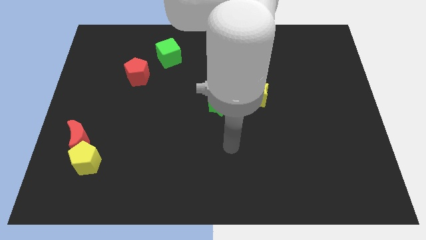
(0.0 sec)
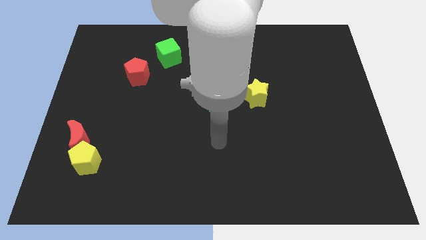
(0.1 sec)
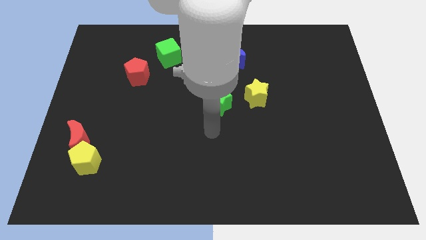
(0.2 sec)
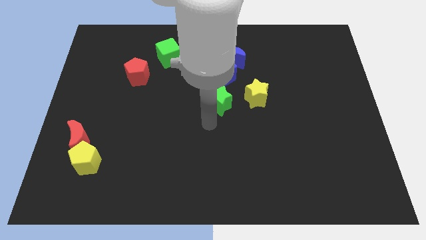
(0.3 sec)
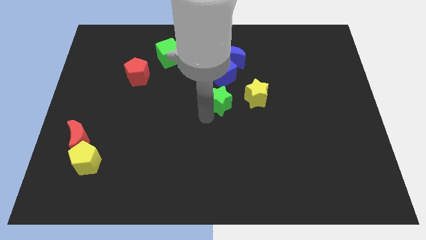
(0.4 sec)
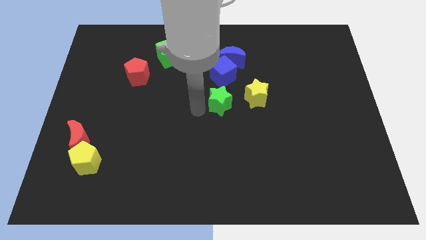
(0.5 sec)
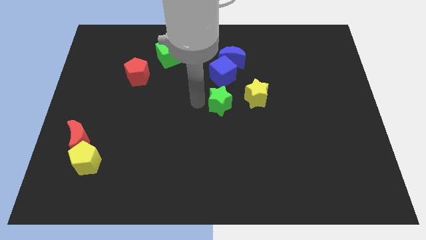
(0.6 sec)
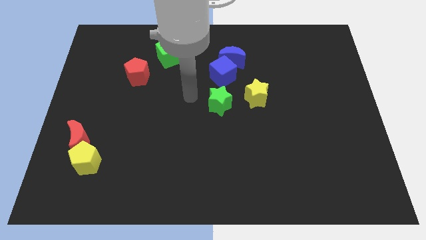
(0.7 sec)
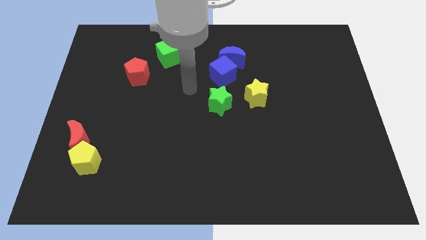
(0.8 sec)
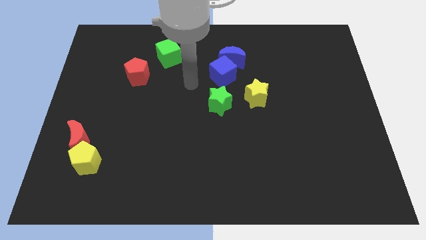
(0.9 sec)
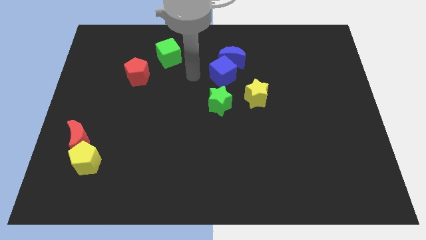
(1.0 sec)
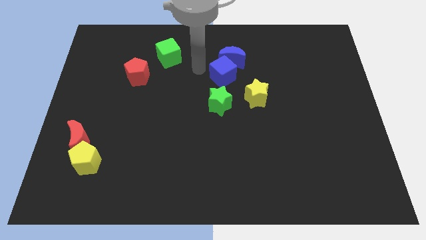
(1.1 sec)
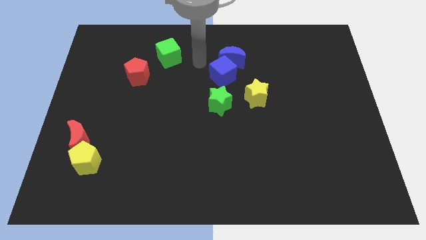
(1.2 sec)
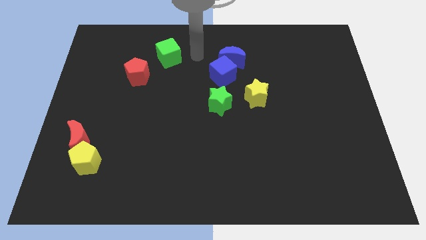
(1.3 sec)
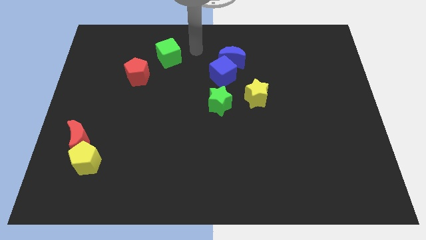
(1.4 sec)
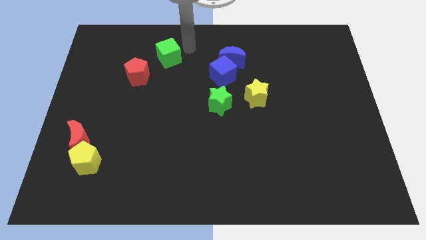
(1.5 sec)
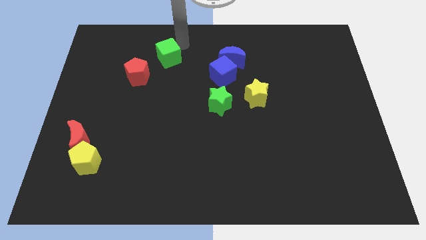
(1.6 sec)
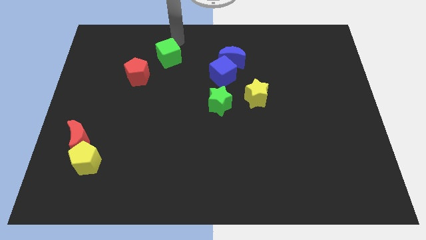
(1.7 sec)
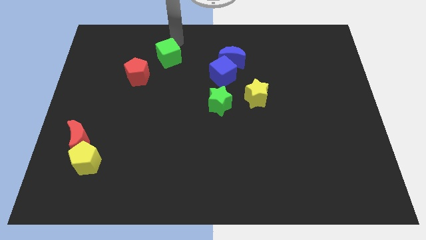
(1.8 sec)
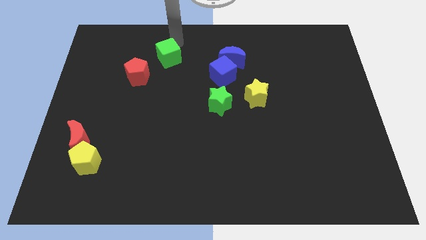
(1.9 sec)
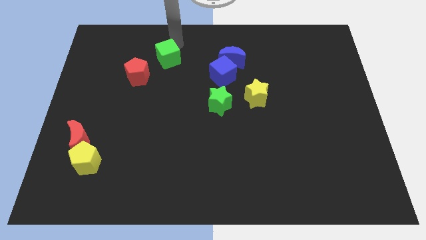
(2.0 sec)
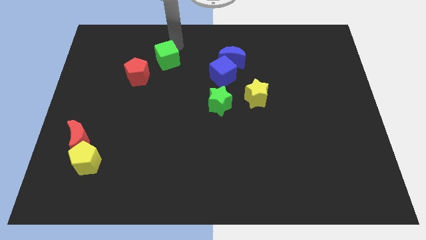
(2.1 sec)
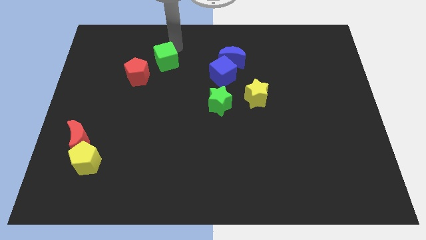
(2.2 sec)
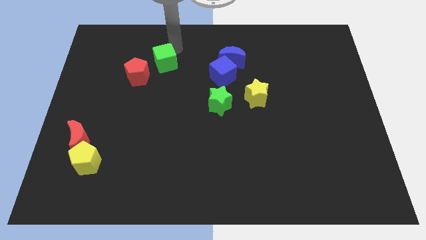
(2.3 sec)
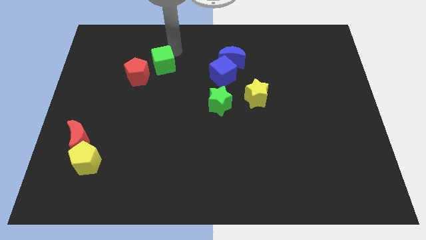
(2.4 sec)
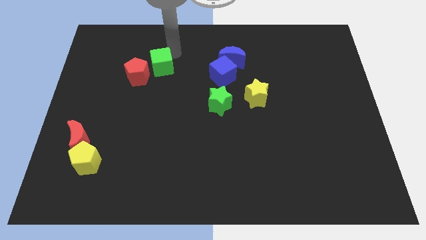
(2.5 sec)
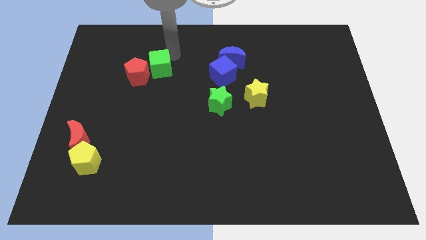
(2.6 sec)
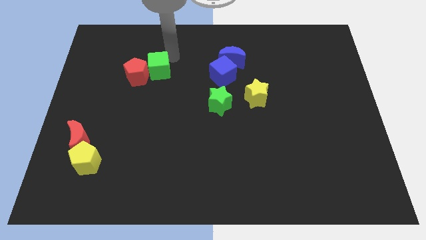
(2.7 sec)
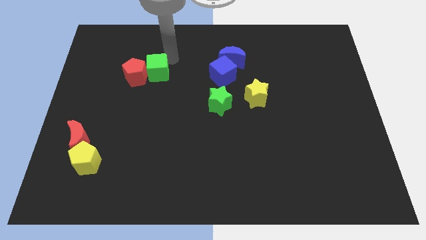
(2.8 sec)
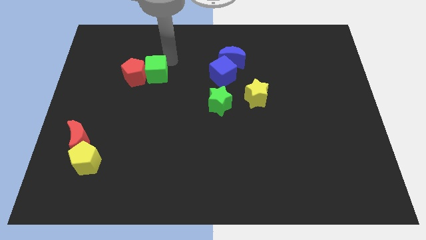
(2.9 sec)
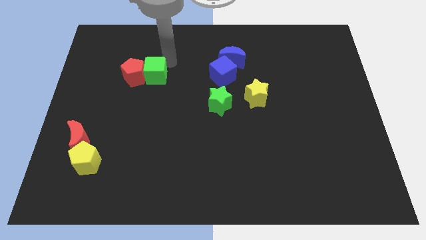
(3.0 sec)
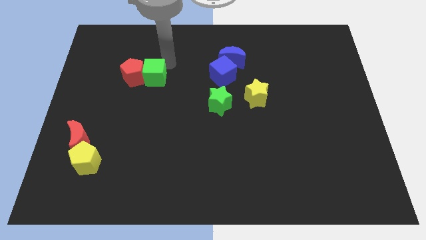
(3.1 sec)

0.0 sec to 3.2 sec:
slide the green cube a little down and left diagonally

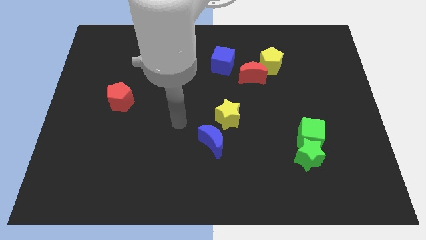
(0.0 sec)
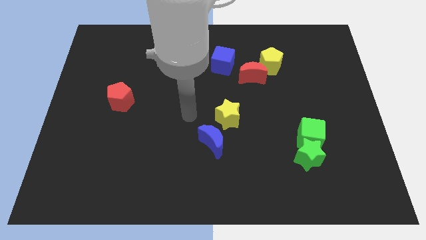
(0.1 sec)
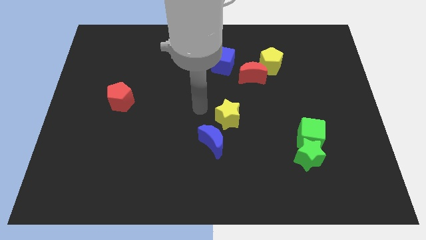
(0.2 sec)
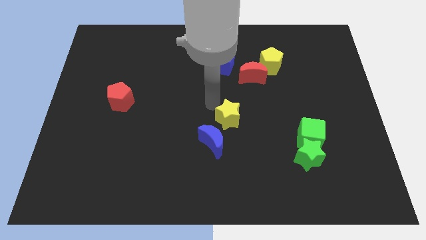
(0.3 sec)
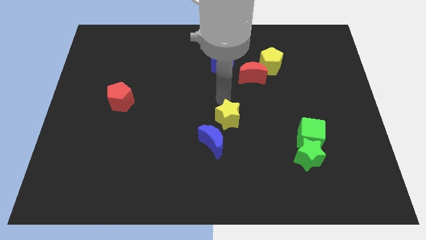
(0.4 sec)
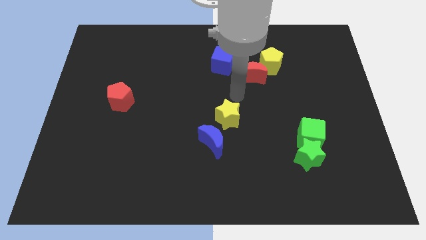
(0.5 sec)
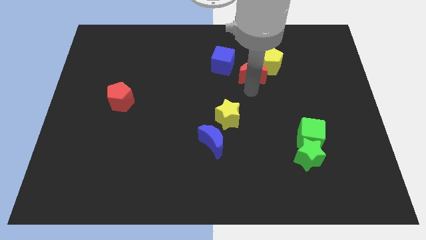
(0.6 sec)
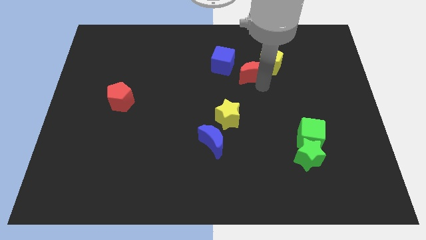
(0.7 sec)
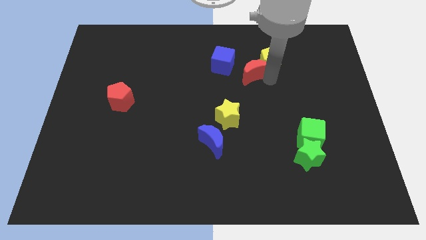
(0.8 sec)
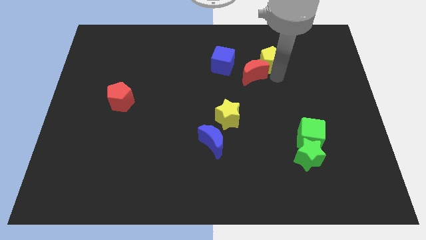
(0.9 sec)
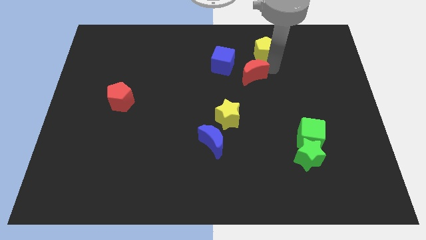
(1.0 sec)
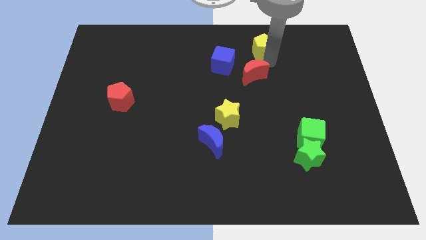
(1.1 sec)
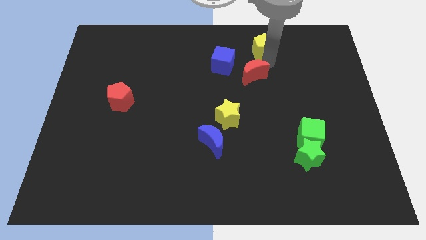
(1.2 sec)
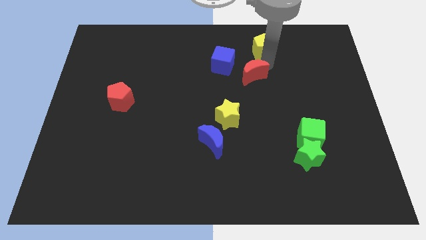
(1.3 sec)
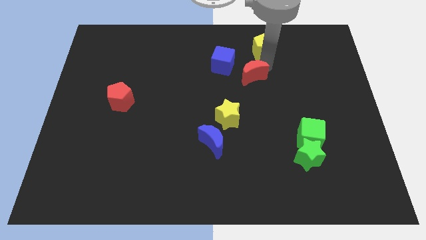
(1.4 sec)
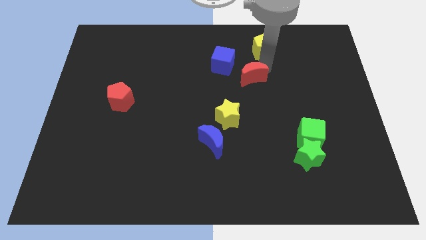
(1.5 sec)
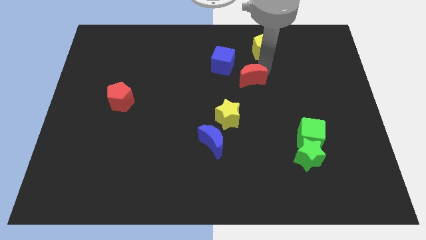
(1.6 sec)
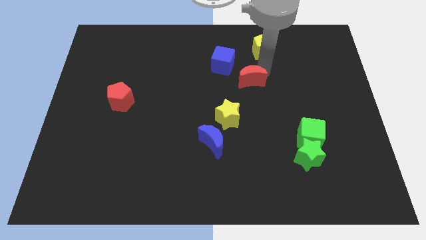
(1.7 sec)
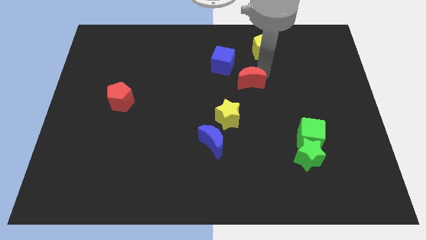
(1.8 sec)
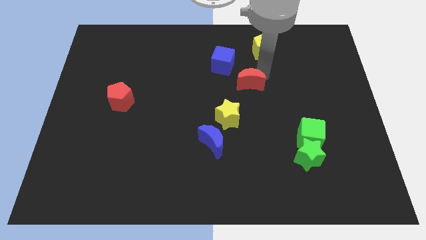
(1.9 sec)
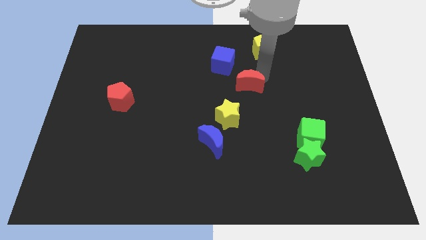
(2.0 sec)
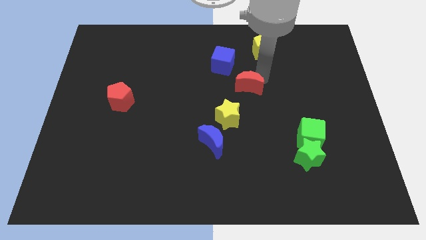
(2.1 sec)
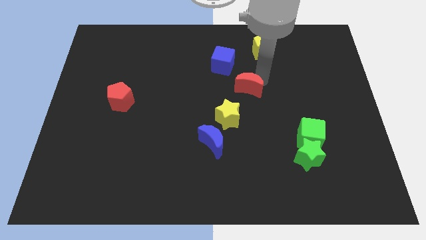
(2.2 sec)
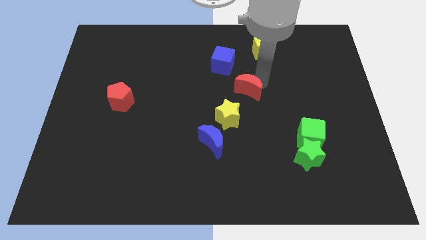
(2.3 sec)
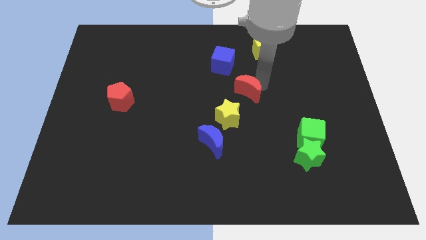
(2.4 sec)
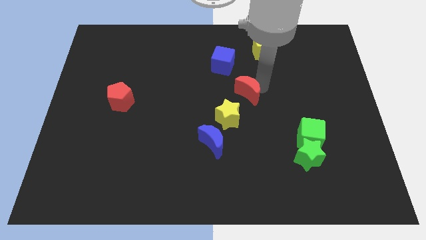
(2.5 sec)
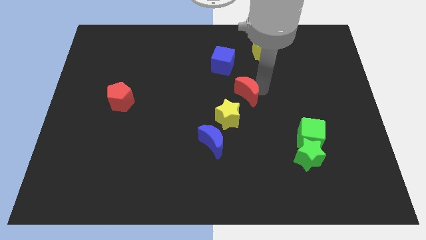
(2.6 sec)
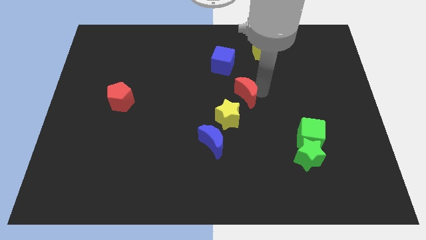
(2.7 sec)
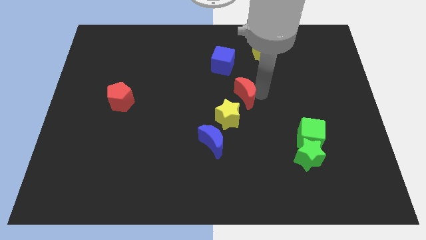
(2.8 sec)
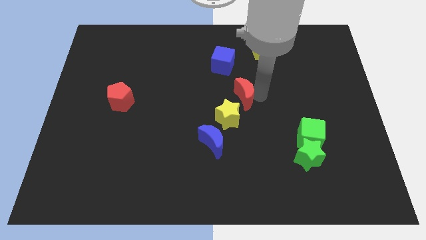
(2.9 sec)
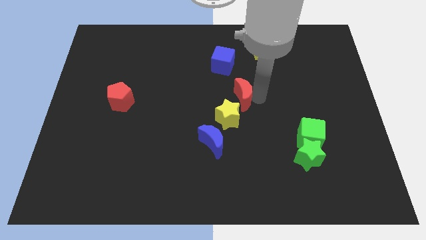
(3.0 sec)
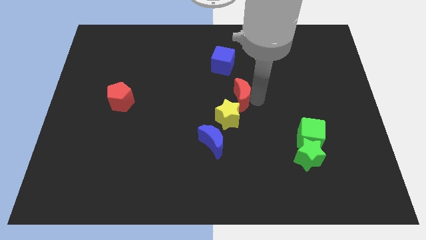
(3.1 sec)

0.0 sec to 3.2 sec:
slide the red moon a bit downwards and left

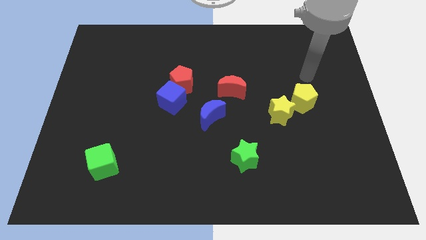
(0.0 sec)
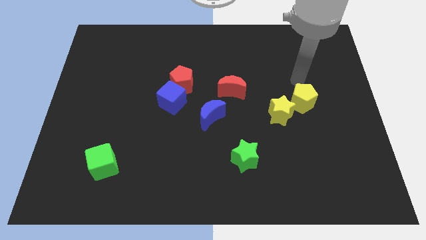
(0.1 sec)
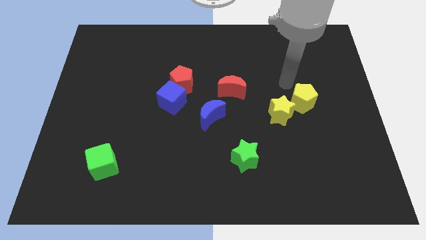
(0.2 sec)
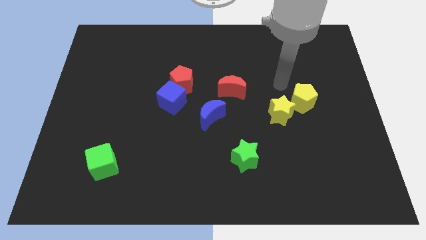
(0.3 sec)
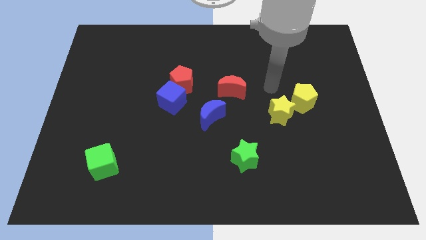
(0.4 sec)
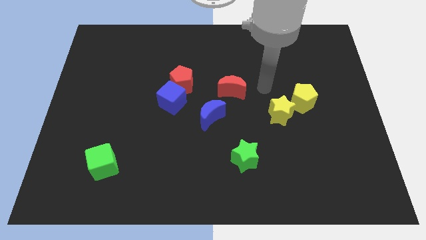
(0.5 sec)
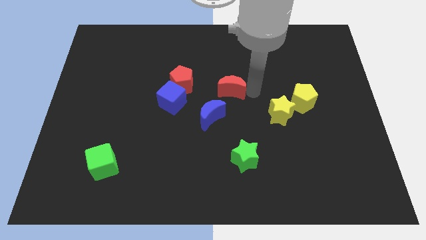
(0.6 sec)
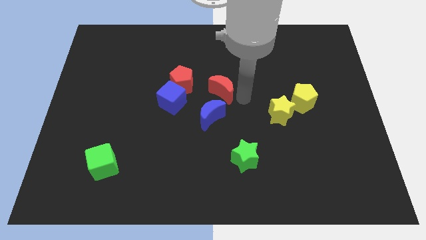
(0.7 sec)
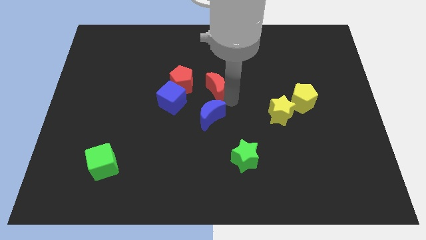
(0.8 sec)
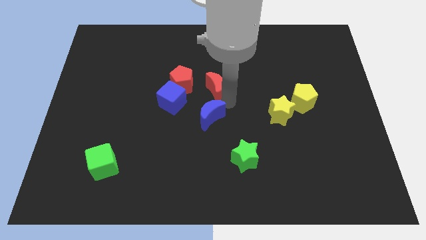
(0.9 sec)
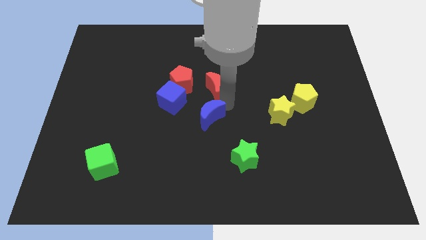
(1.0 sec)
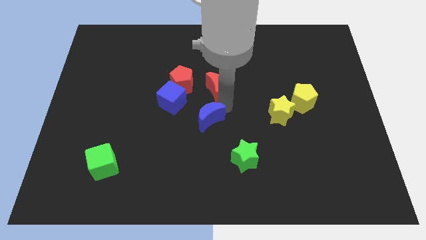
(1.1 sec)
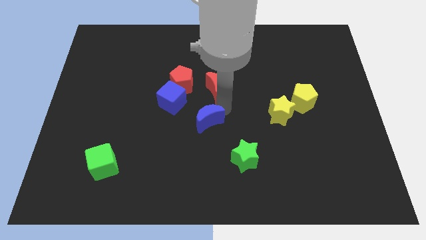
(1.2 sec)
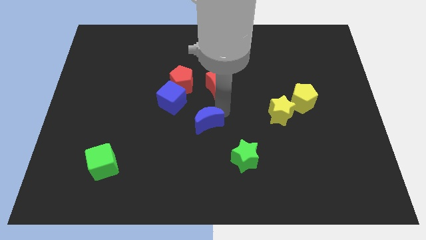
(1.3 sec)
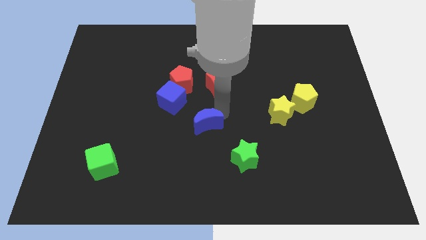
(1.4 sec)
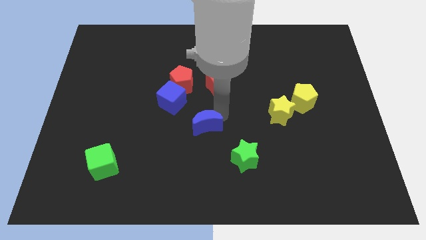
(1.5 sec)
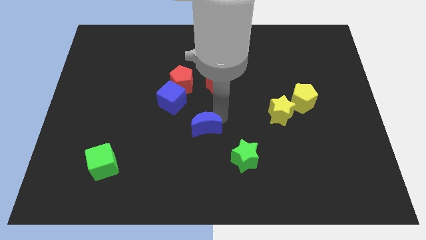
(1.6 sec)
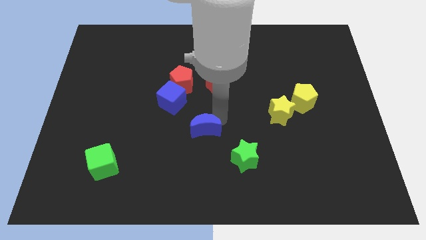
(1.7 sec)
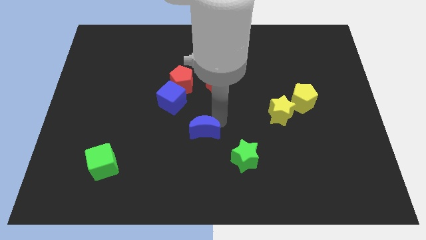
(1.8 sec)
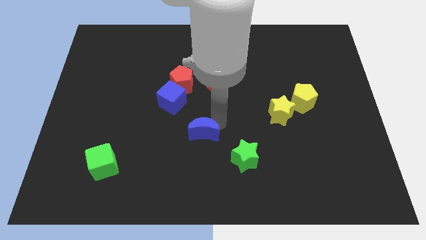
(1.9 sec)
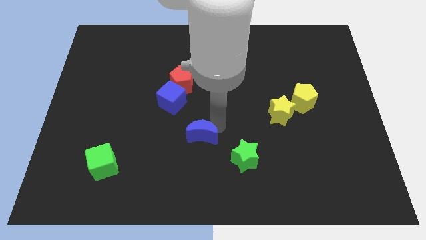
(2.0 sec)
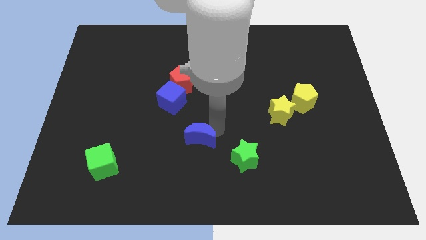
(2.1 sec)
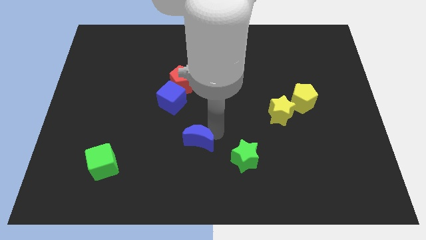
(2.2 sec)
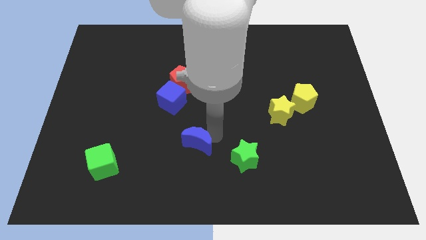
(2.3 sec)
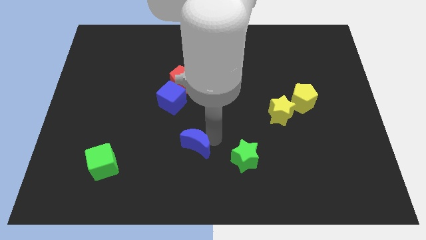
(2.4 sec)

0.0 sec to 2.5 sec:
slide the blue moon slightly diagonally downwards and to the left
